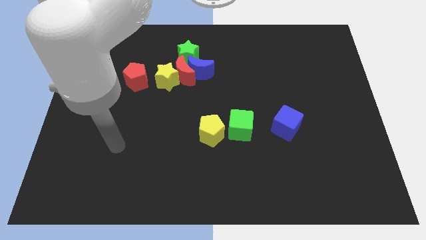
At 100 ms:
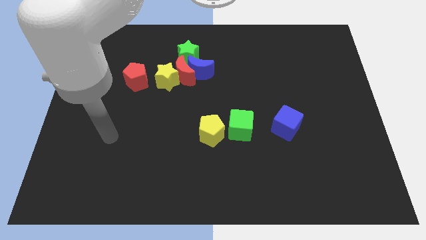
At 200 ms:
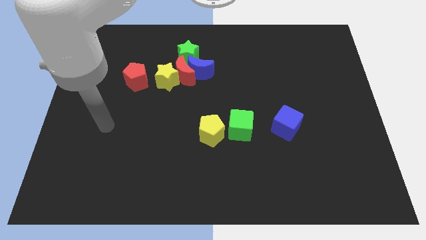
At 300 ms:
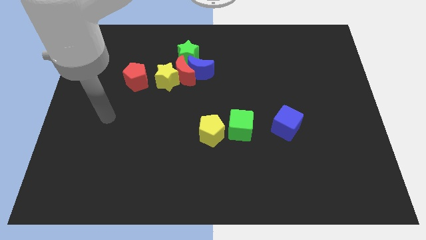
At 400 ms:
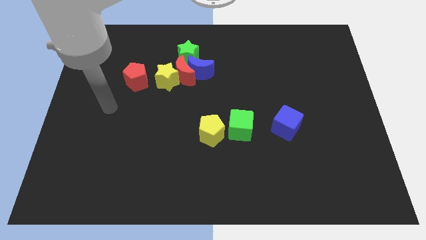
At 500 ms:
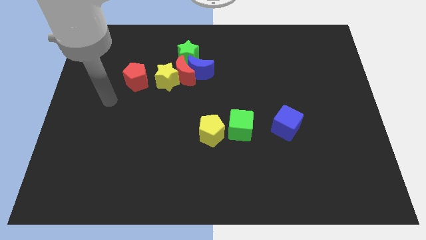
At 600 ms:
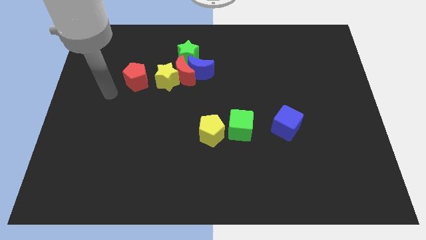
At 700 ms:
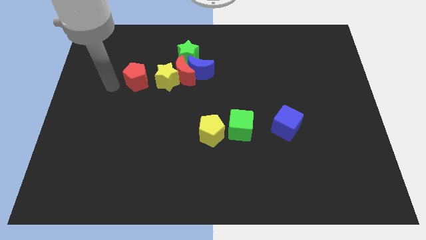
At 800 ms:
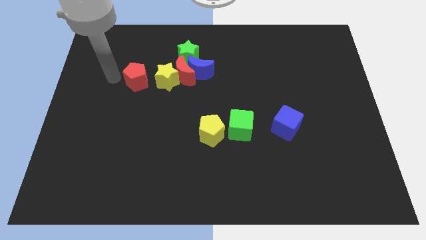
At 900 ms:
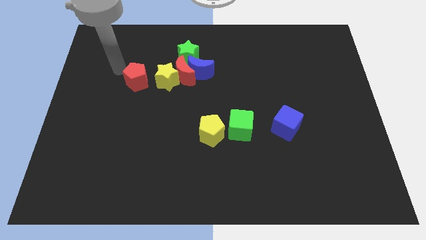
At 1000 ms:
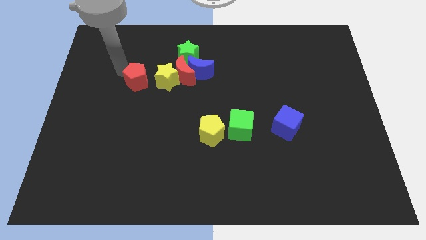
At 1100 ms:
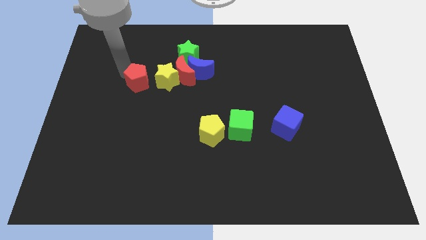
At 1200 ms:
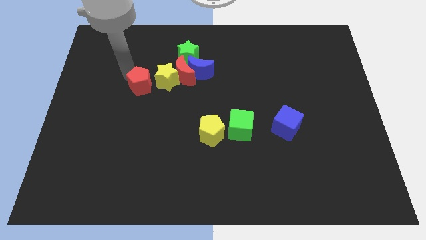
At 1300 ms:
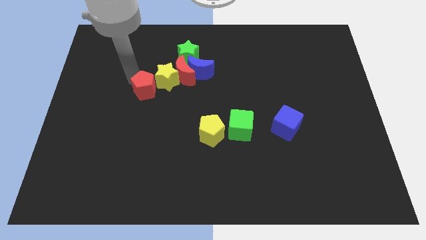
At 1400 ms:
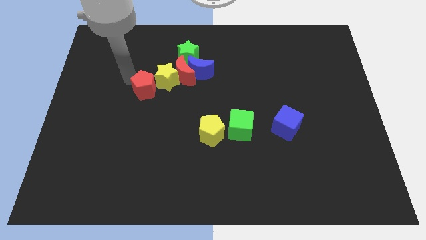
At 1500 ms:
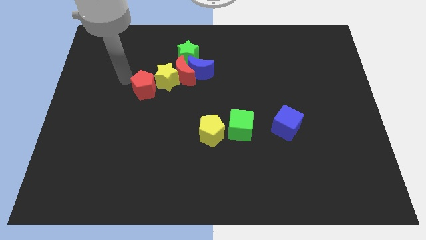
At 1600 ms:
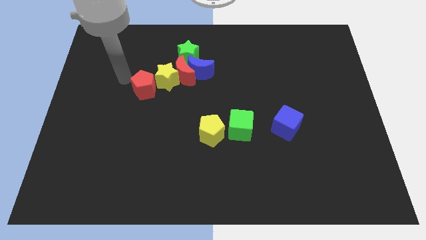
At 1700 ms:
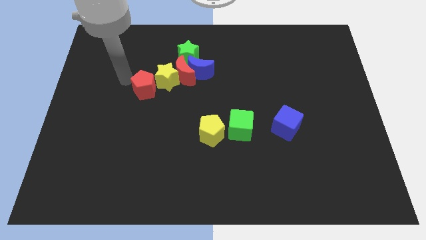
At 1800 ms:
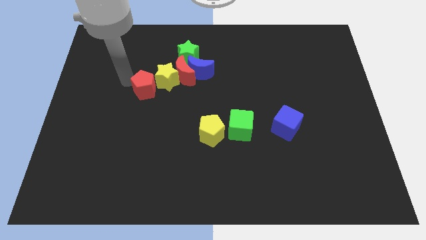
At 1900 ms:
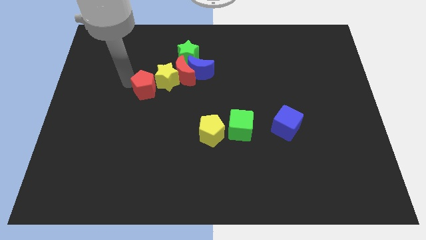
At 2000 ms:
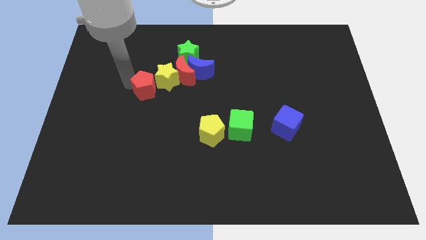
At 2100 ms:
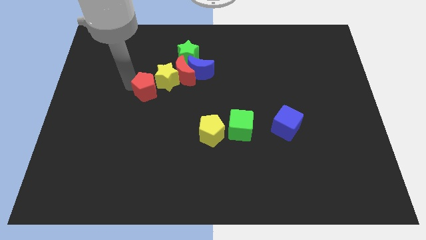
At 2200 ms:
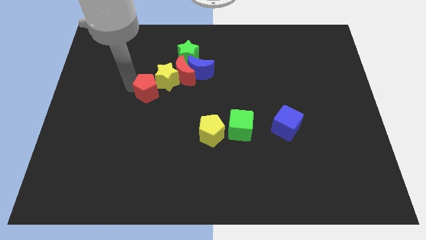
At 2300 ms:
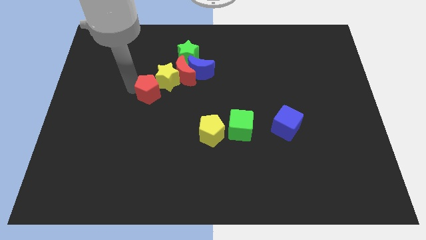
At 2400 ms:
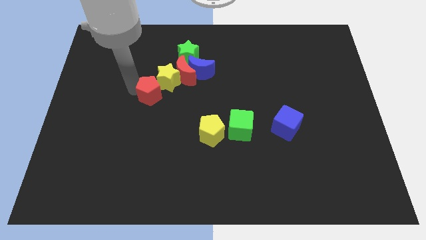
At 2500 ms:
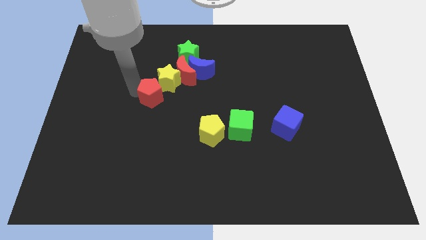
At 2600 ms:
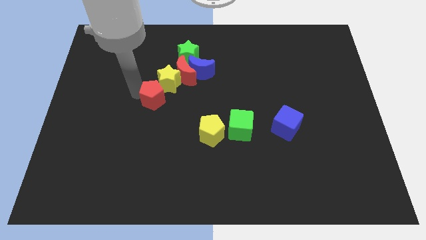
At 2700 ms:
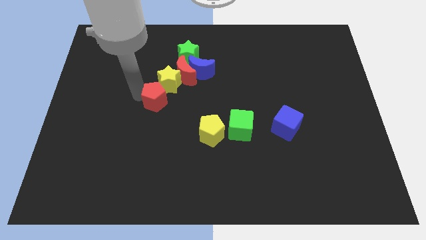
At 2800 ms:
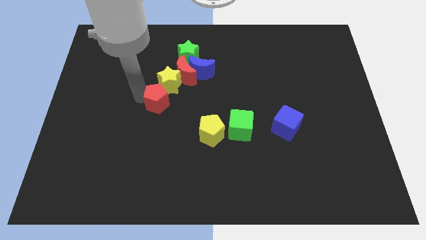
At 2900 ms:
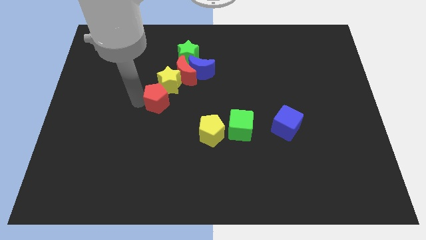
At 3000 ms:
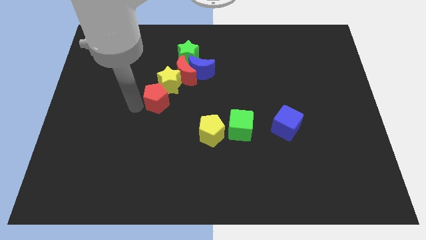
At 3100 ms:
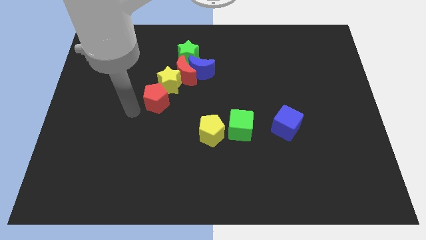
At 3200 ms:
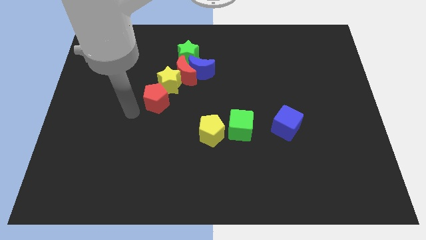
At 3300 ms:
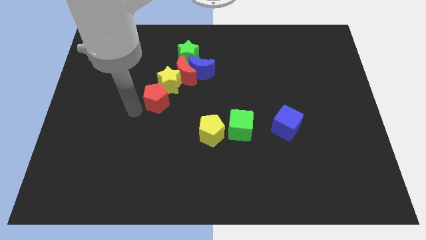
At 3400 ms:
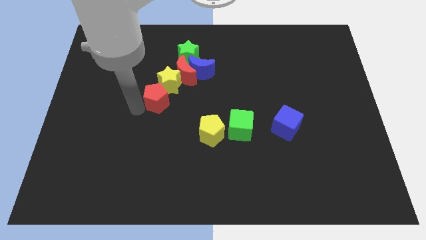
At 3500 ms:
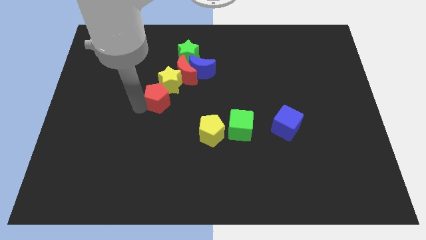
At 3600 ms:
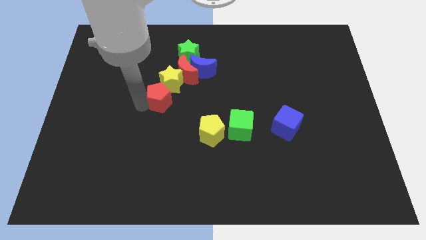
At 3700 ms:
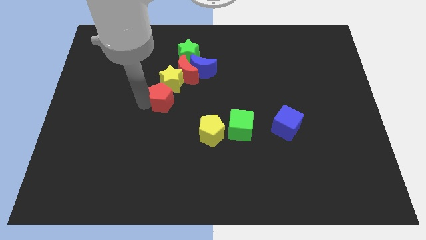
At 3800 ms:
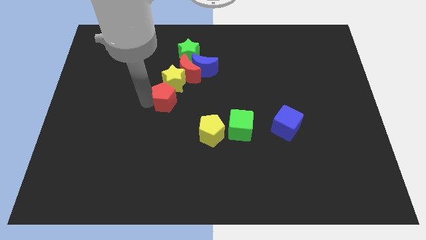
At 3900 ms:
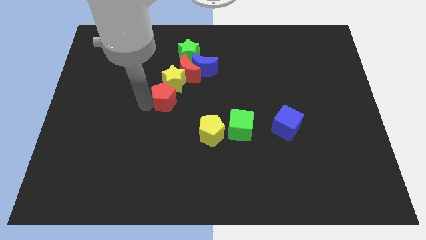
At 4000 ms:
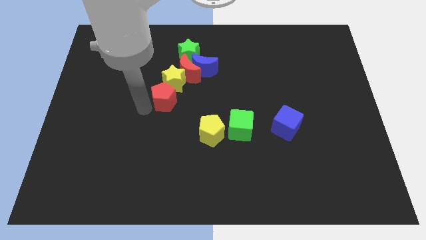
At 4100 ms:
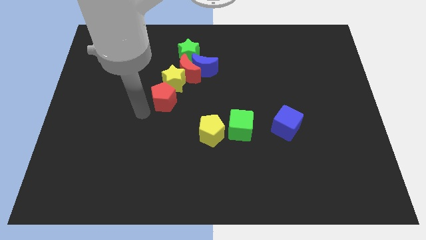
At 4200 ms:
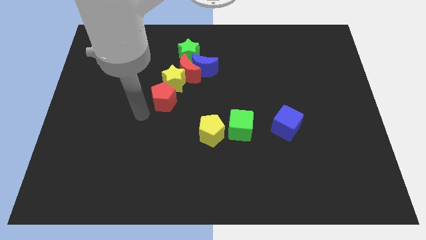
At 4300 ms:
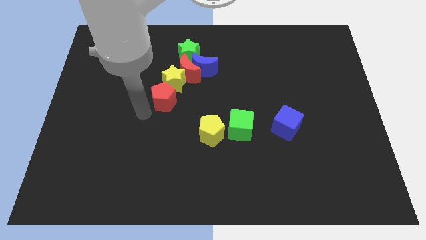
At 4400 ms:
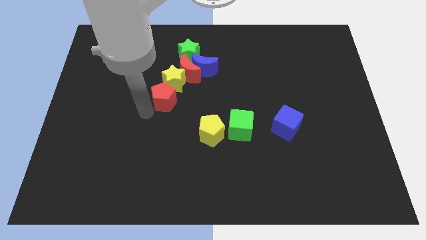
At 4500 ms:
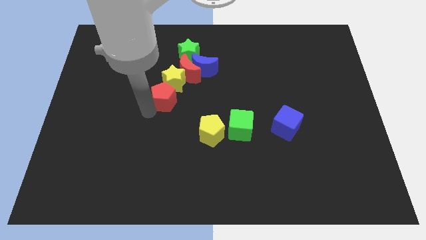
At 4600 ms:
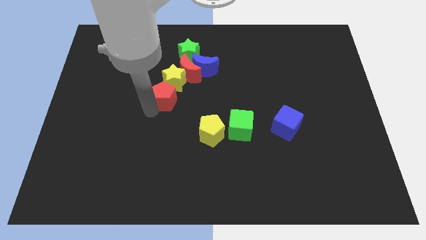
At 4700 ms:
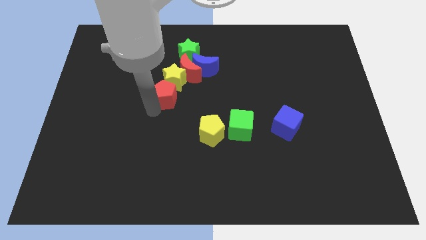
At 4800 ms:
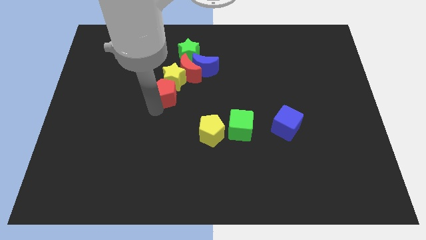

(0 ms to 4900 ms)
push the red pentagon a little bit to the right

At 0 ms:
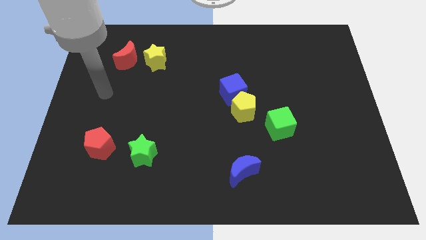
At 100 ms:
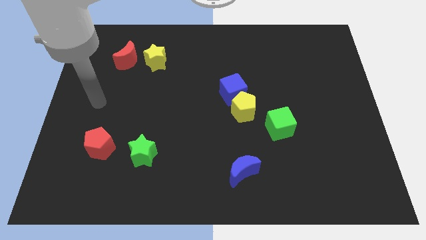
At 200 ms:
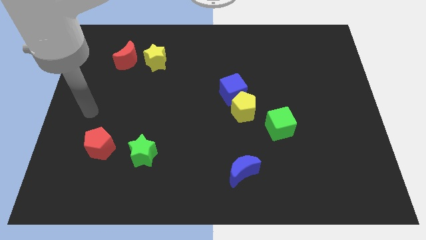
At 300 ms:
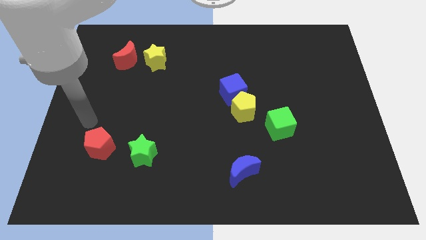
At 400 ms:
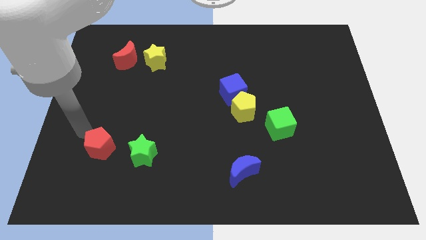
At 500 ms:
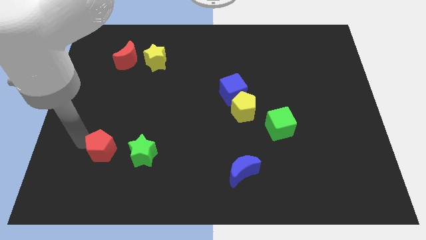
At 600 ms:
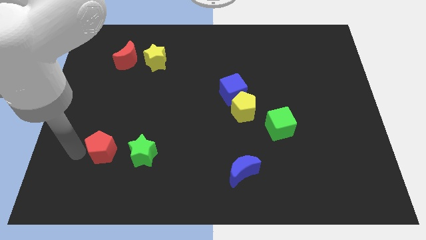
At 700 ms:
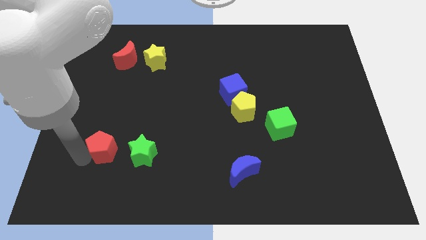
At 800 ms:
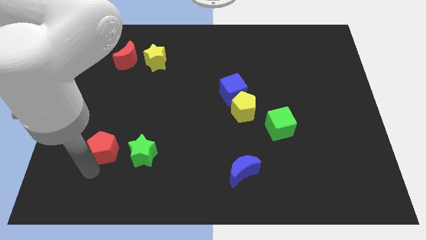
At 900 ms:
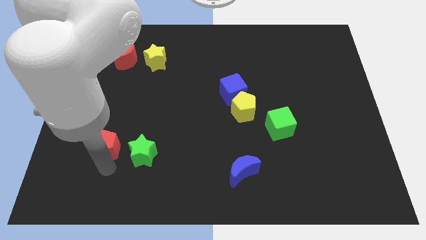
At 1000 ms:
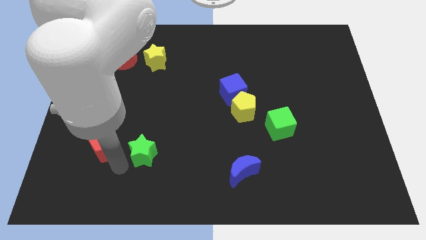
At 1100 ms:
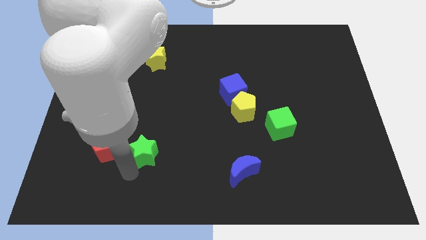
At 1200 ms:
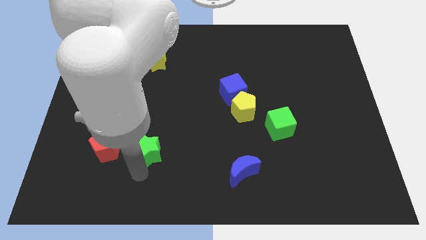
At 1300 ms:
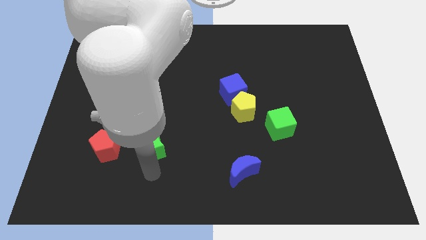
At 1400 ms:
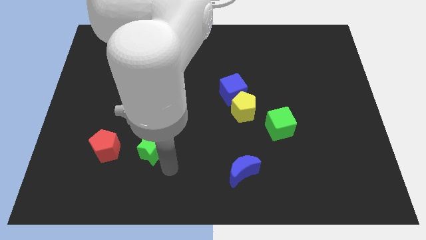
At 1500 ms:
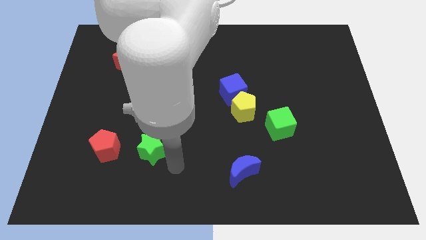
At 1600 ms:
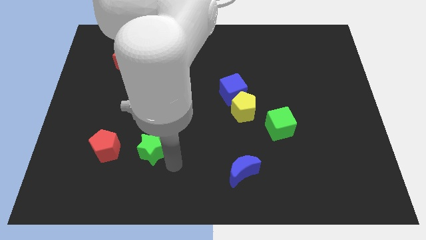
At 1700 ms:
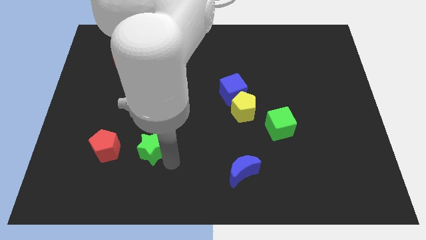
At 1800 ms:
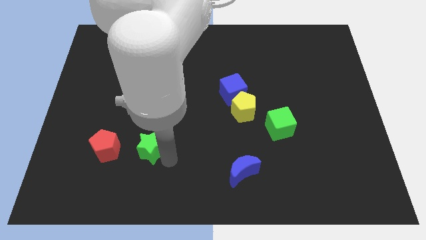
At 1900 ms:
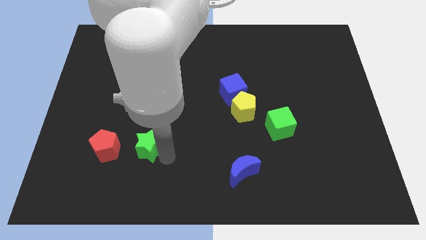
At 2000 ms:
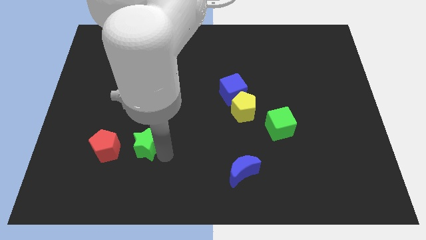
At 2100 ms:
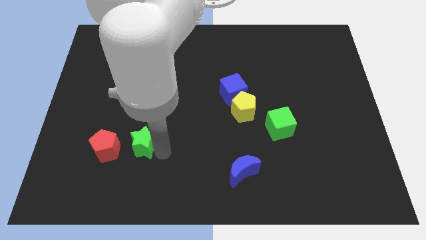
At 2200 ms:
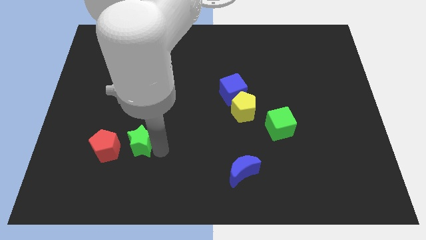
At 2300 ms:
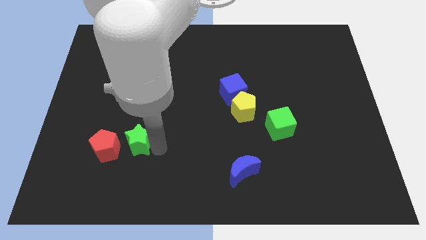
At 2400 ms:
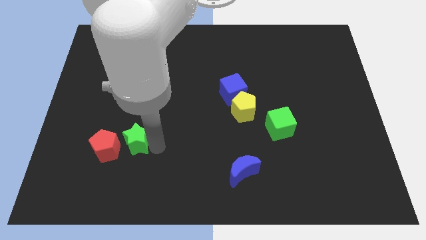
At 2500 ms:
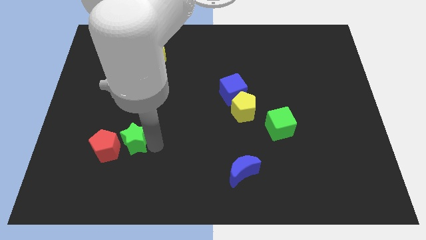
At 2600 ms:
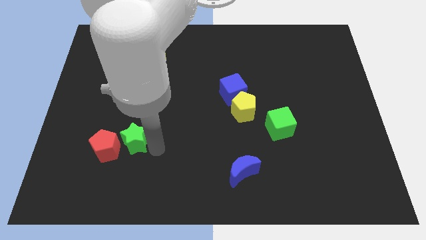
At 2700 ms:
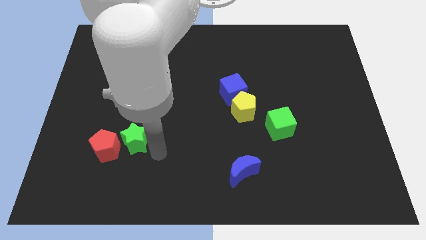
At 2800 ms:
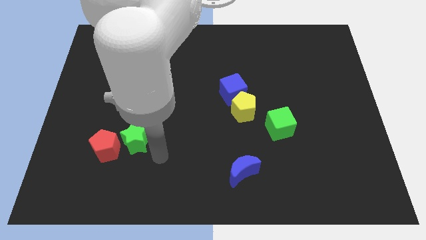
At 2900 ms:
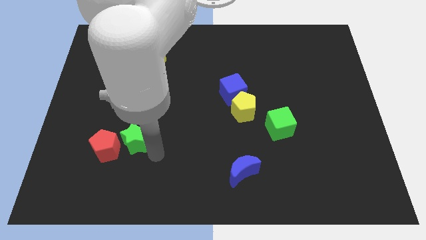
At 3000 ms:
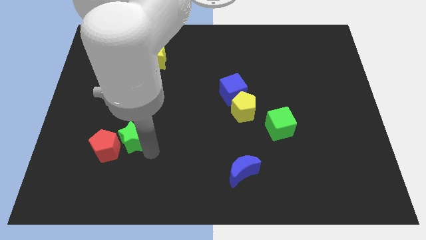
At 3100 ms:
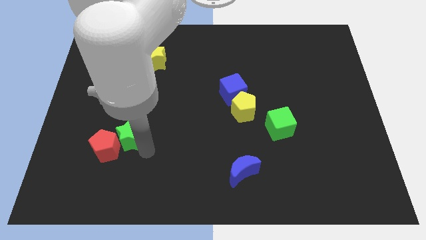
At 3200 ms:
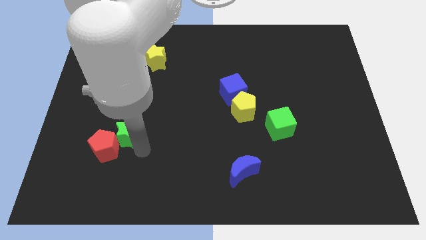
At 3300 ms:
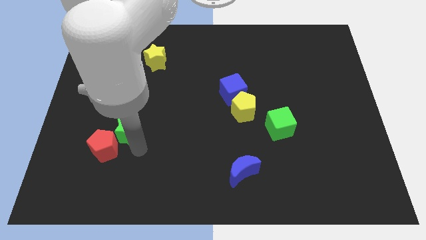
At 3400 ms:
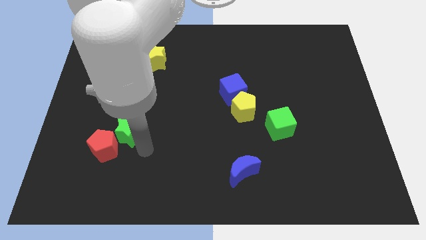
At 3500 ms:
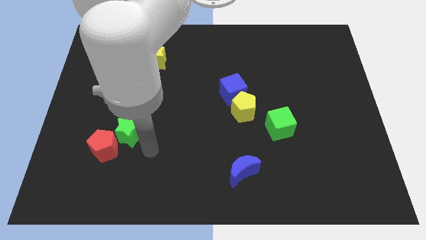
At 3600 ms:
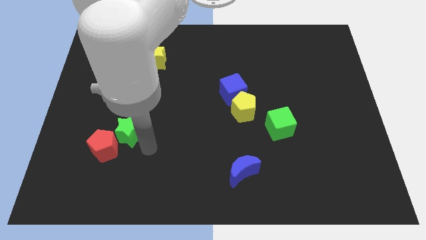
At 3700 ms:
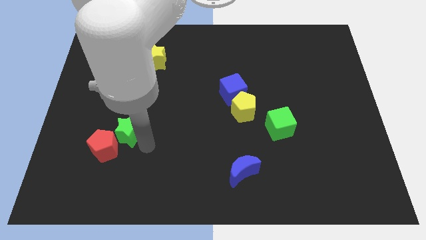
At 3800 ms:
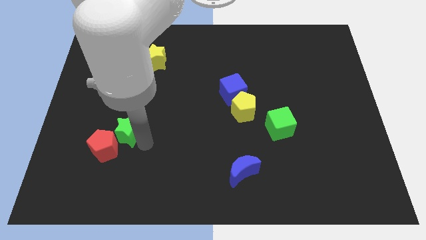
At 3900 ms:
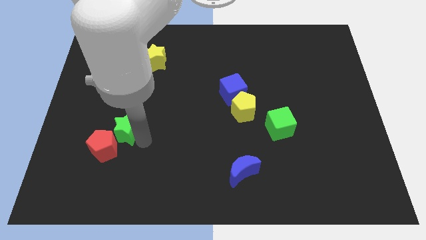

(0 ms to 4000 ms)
slide the green star upwards and then left a little bit
